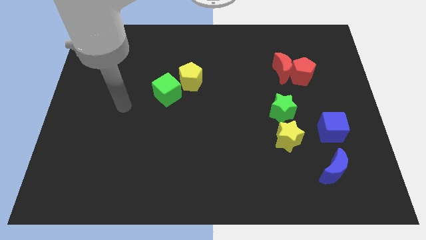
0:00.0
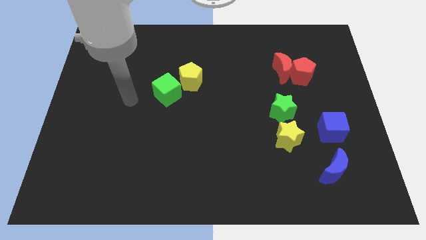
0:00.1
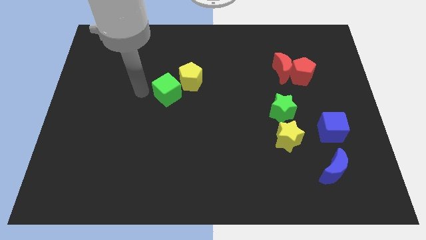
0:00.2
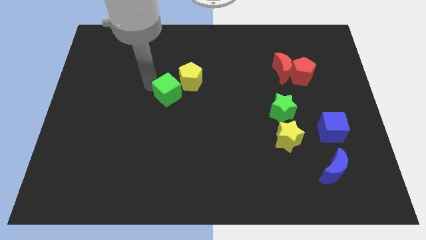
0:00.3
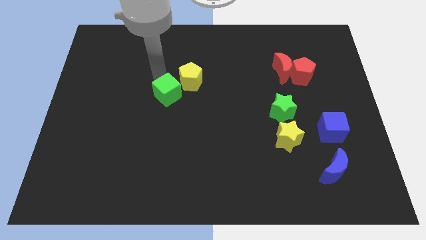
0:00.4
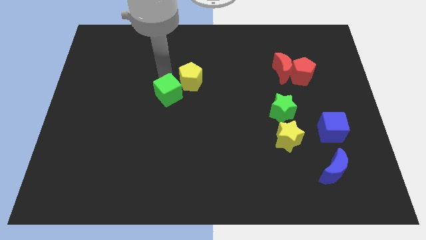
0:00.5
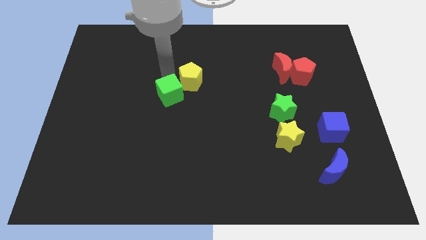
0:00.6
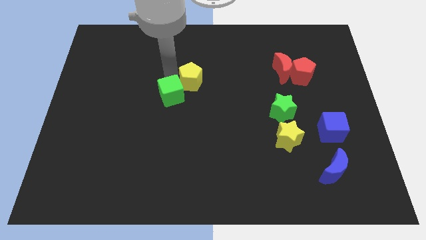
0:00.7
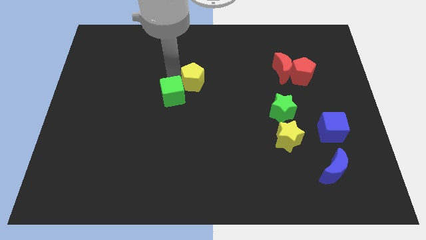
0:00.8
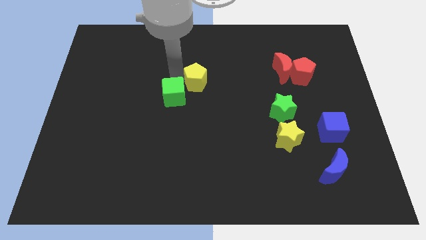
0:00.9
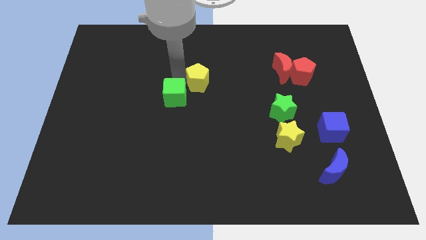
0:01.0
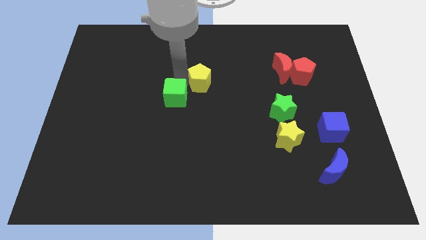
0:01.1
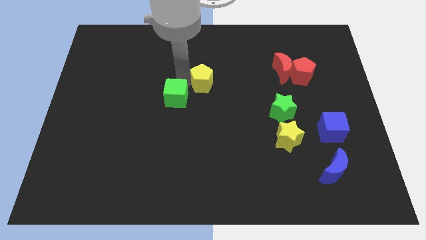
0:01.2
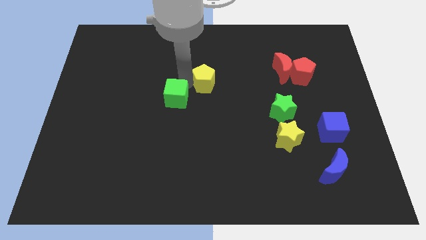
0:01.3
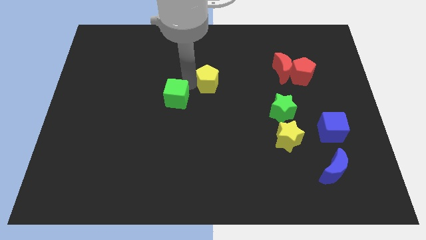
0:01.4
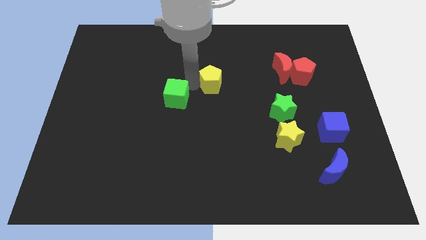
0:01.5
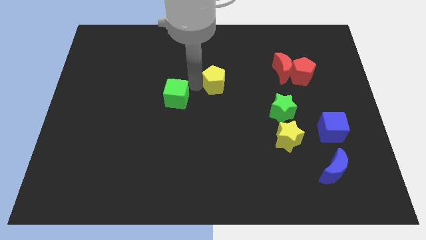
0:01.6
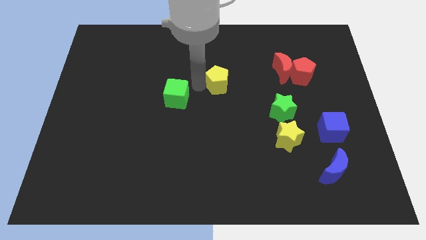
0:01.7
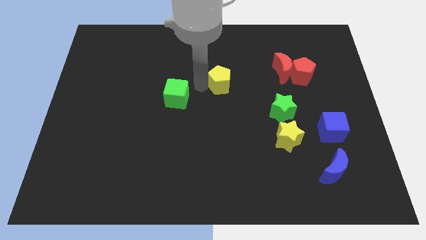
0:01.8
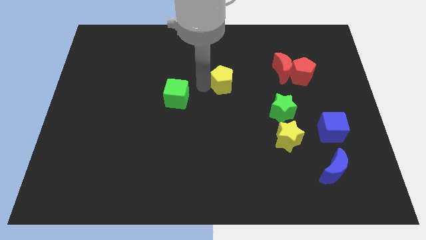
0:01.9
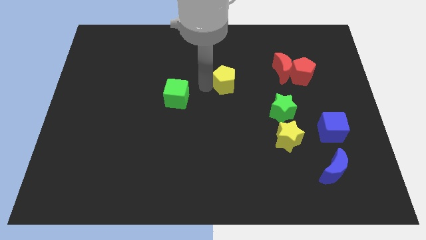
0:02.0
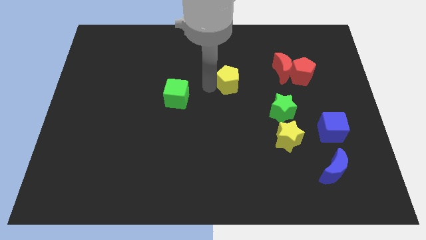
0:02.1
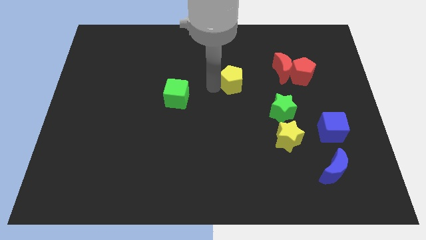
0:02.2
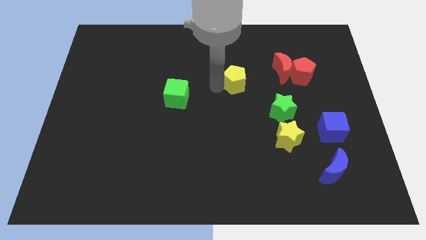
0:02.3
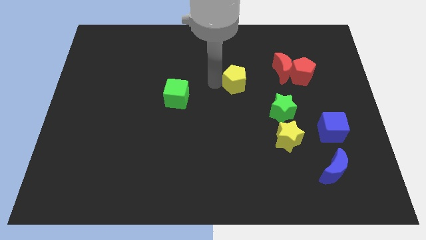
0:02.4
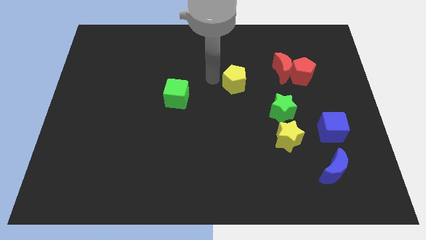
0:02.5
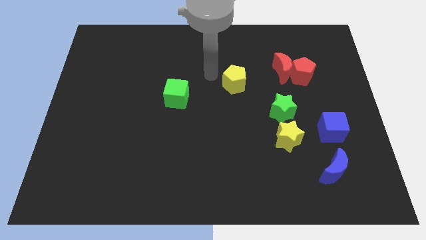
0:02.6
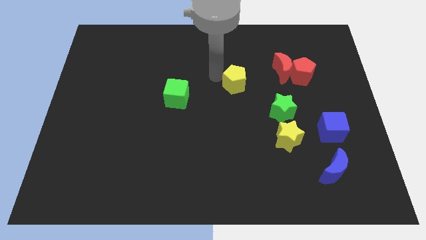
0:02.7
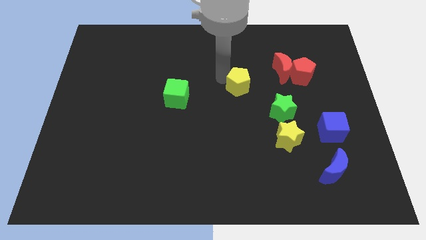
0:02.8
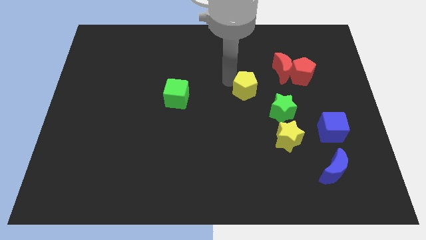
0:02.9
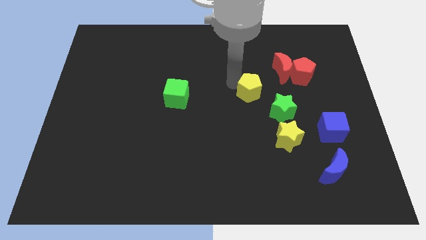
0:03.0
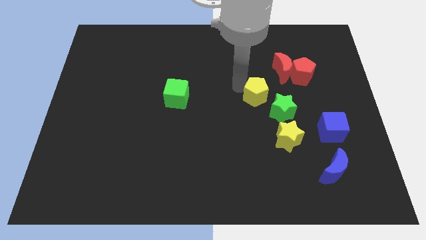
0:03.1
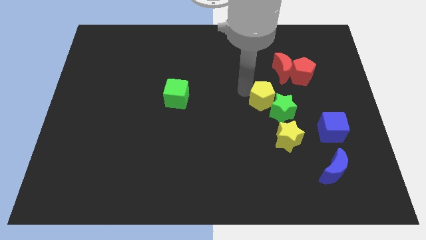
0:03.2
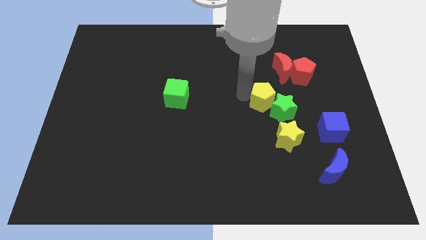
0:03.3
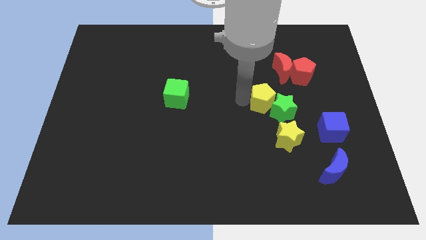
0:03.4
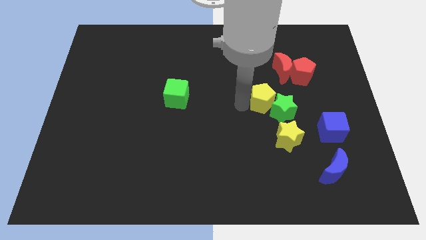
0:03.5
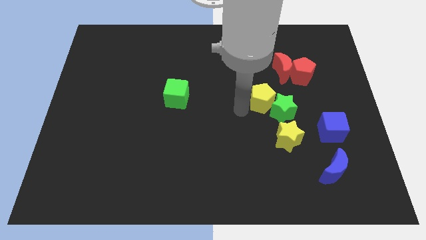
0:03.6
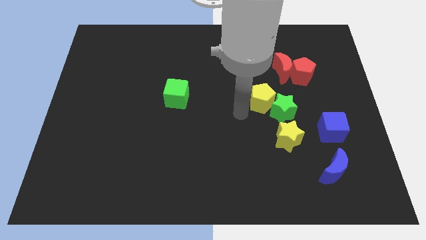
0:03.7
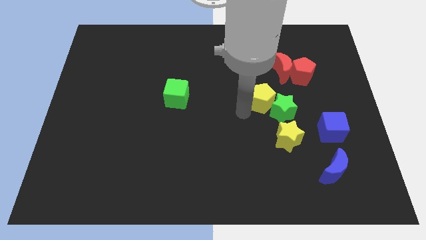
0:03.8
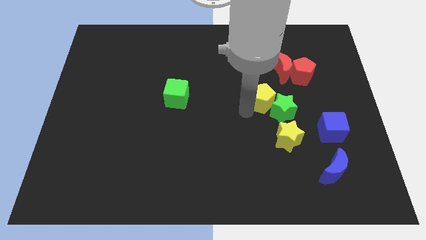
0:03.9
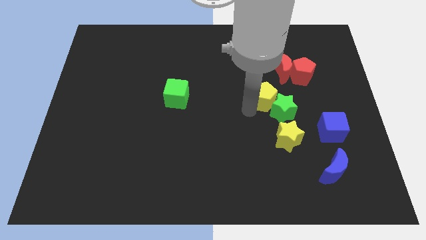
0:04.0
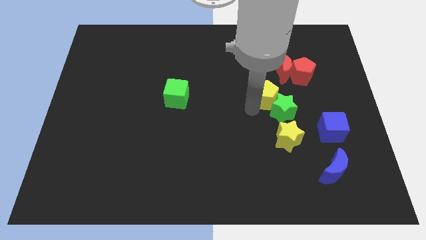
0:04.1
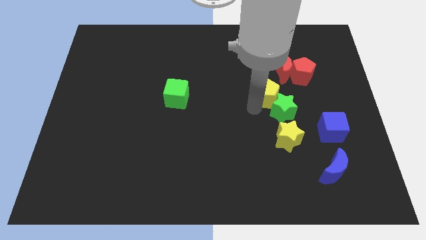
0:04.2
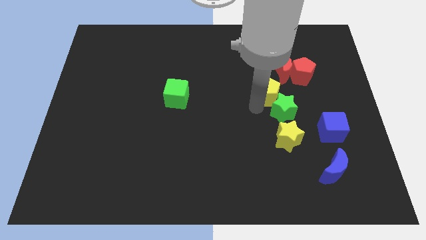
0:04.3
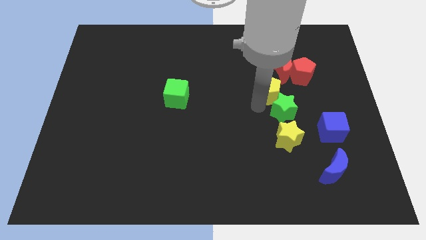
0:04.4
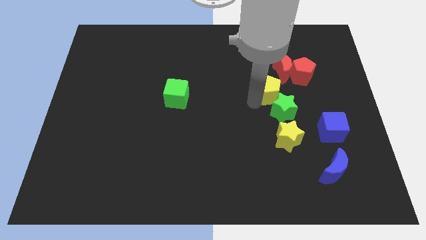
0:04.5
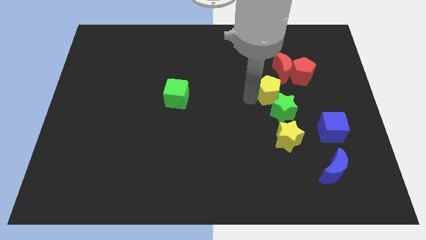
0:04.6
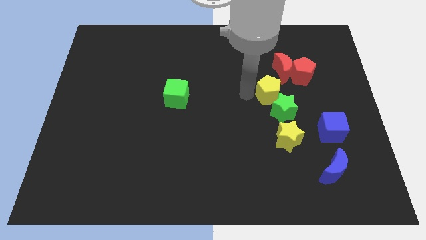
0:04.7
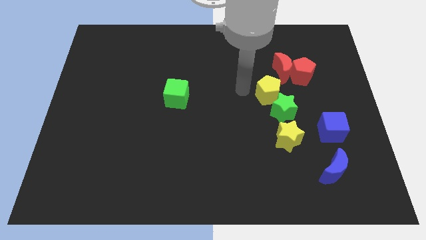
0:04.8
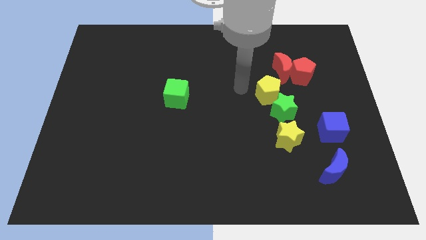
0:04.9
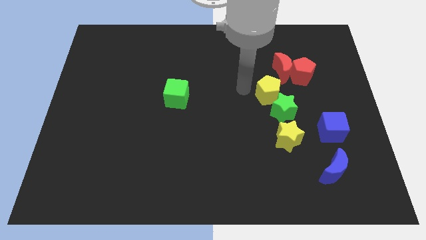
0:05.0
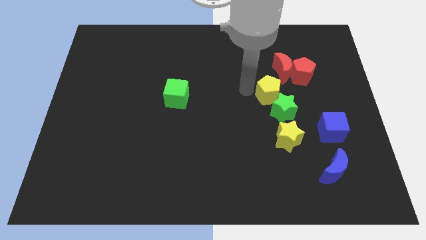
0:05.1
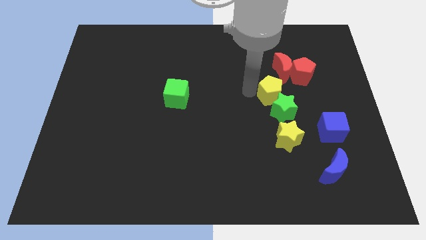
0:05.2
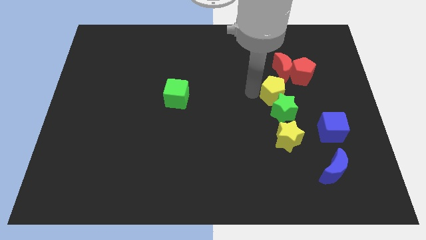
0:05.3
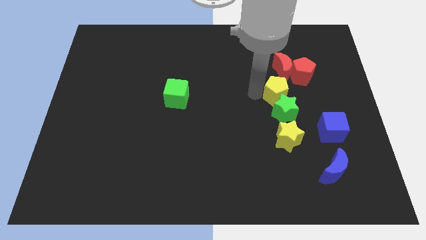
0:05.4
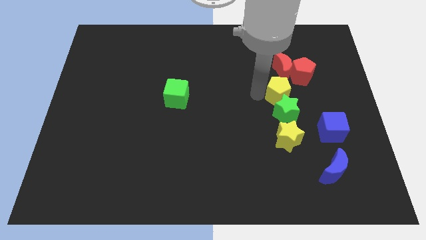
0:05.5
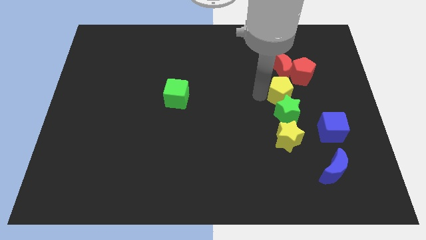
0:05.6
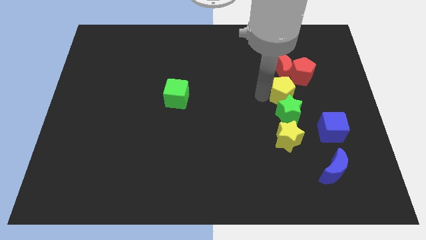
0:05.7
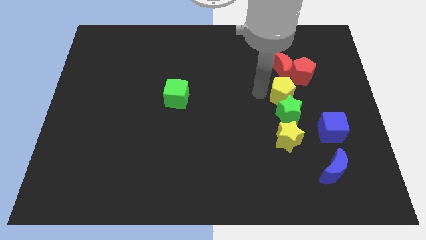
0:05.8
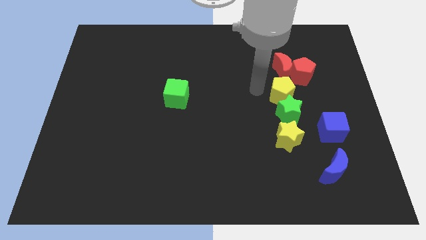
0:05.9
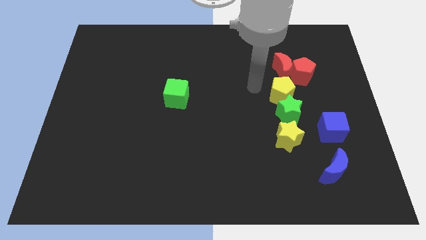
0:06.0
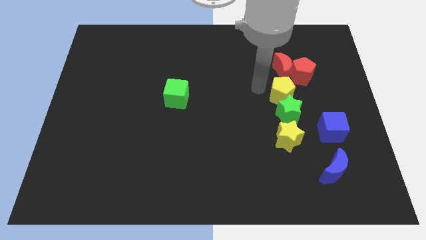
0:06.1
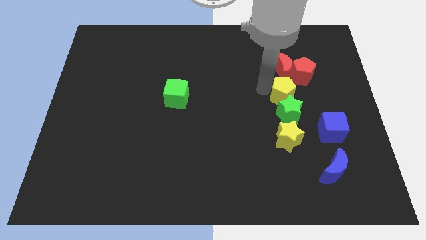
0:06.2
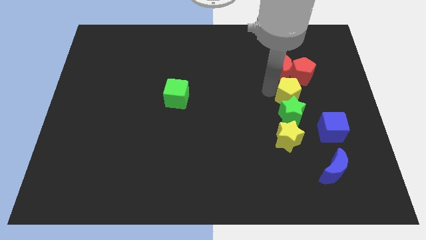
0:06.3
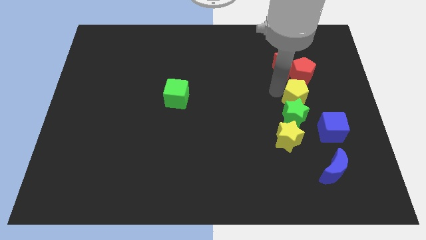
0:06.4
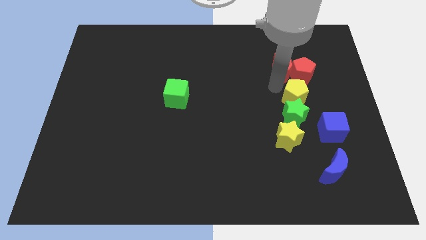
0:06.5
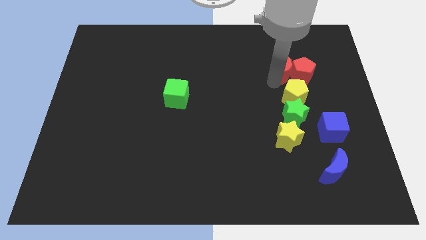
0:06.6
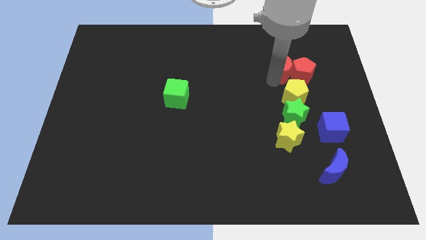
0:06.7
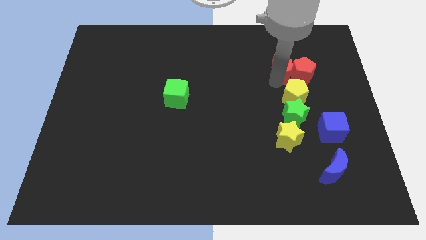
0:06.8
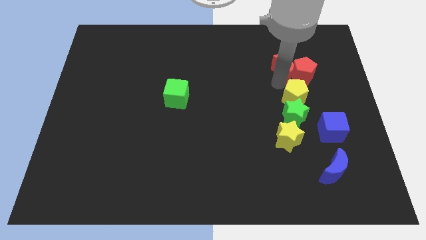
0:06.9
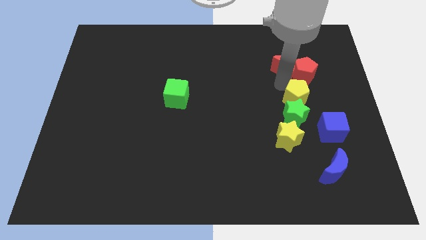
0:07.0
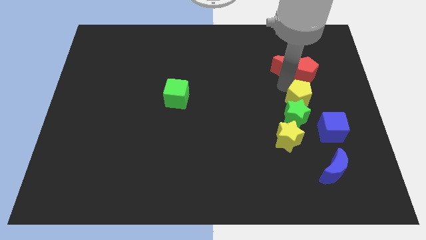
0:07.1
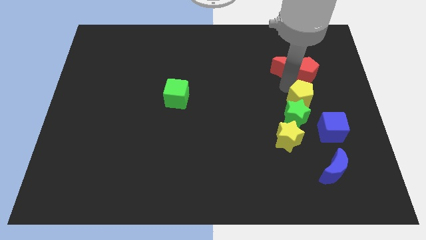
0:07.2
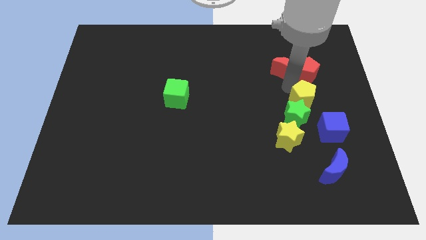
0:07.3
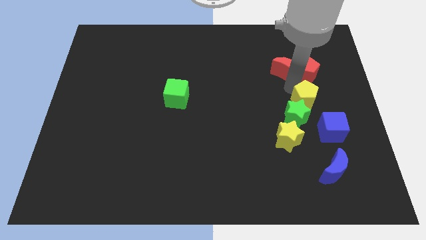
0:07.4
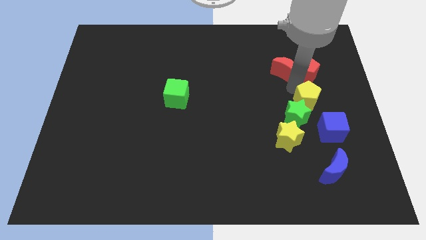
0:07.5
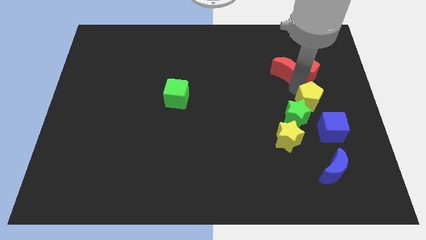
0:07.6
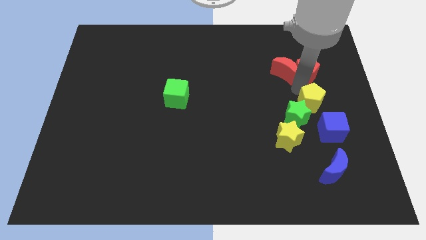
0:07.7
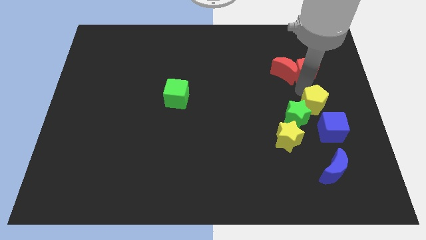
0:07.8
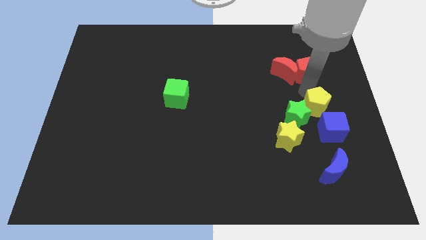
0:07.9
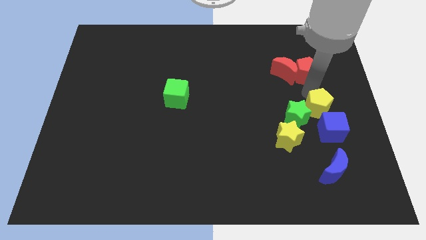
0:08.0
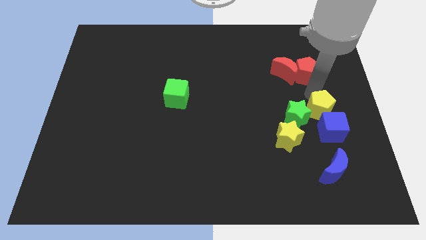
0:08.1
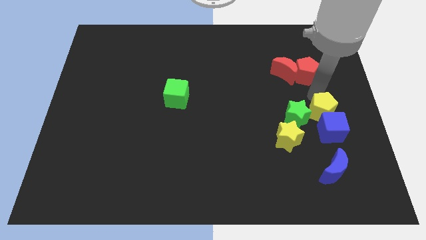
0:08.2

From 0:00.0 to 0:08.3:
slide the yellow pentagon to the top of the blue moon
